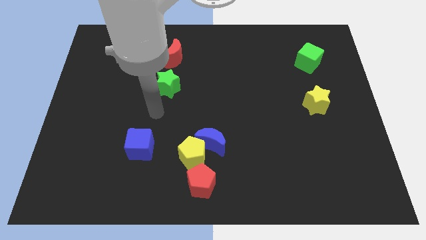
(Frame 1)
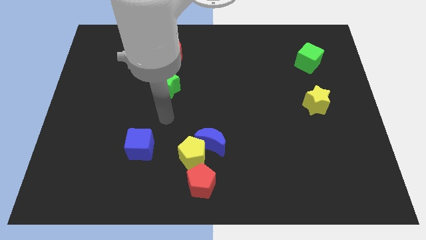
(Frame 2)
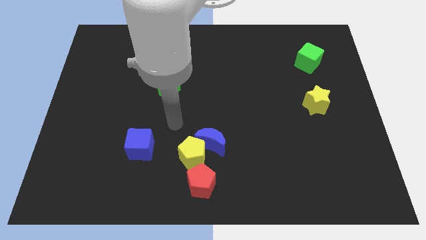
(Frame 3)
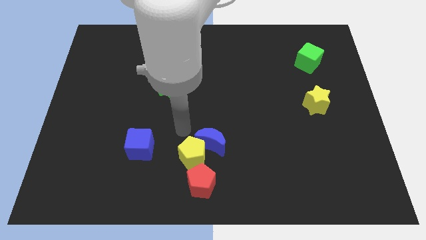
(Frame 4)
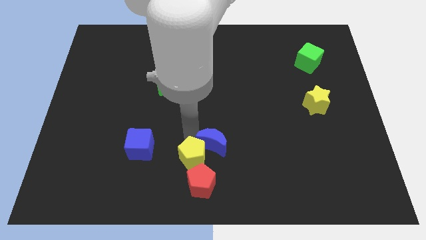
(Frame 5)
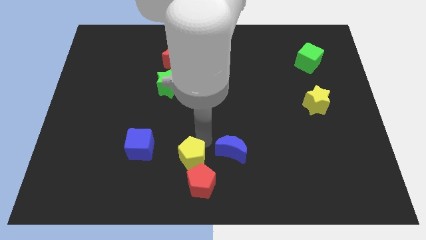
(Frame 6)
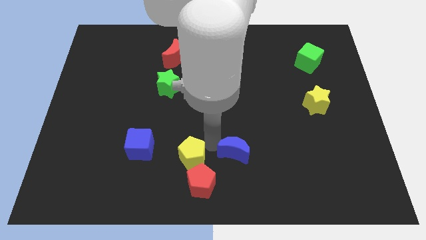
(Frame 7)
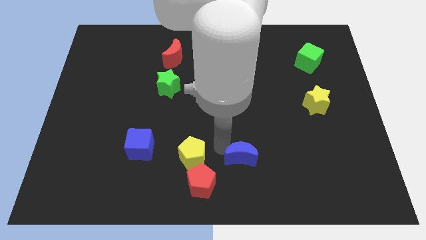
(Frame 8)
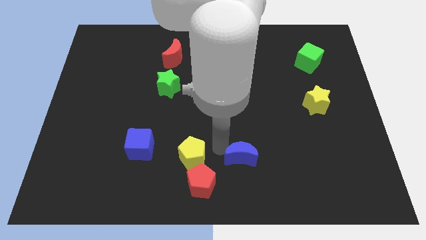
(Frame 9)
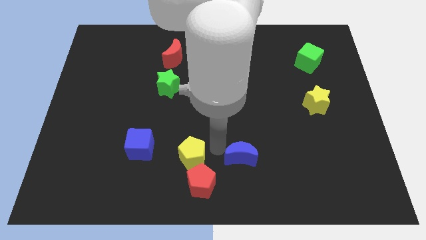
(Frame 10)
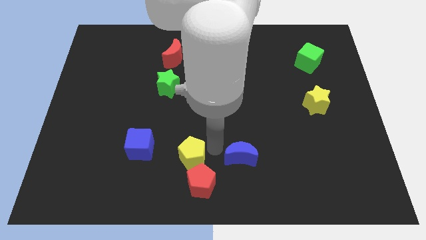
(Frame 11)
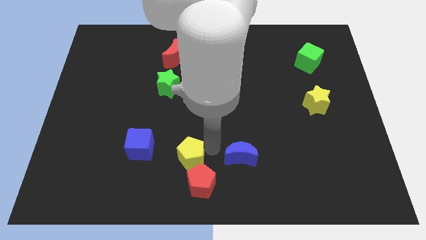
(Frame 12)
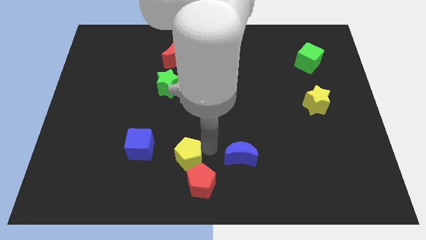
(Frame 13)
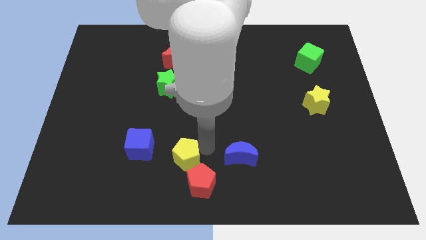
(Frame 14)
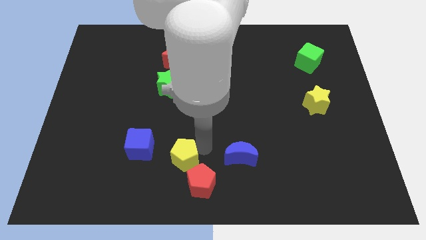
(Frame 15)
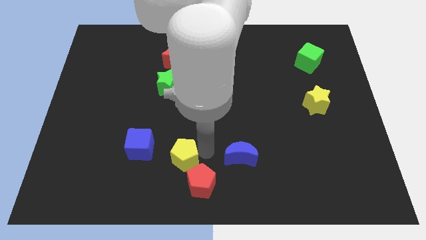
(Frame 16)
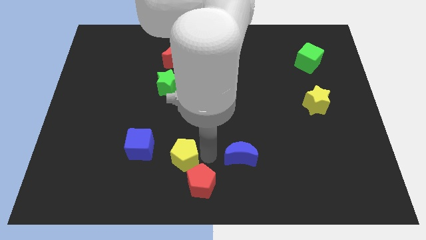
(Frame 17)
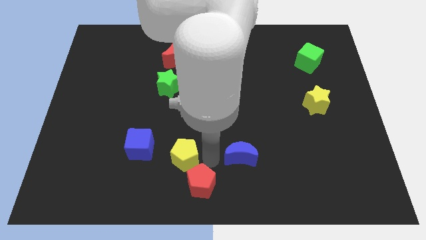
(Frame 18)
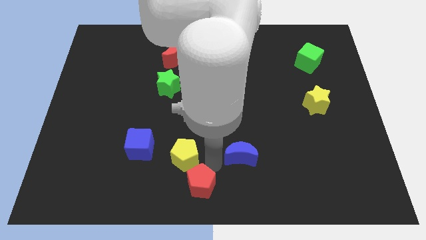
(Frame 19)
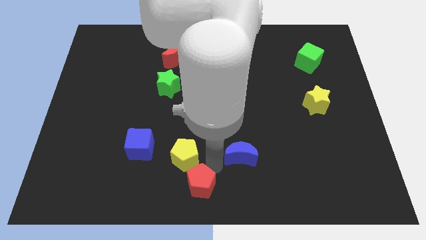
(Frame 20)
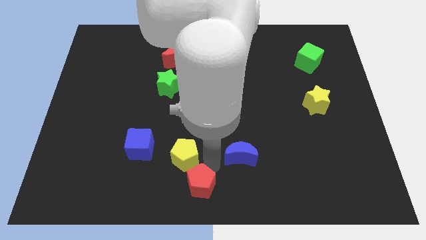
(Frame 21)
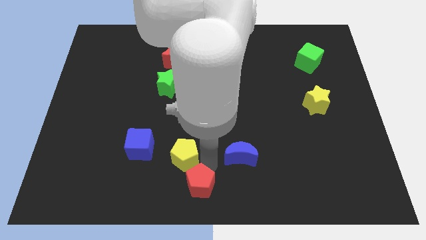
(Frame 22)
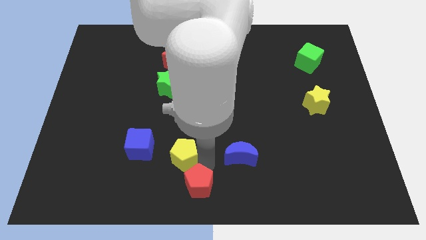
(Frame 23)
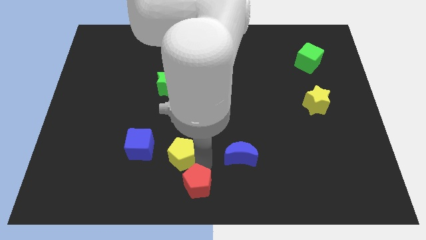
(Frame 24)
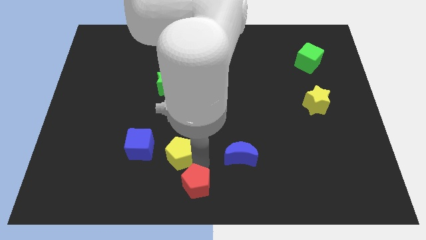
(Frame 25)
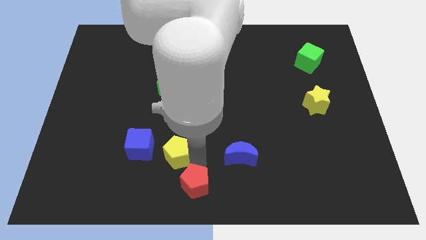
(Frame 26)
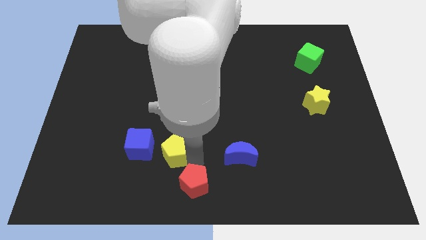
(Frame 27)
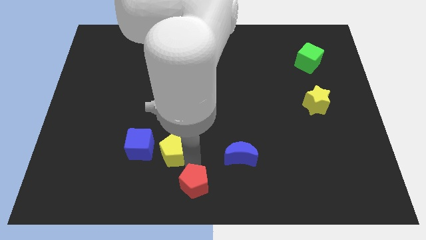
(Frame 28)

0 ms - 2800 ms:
move the yellow pentagon away from the blue moon and red pentagon

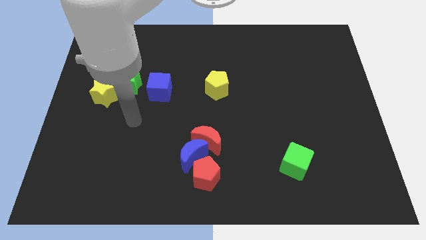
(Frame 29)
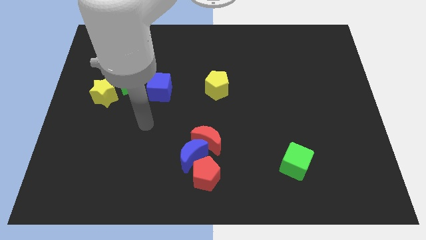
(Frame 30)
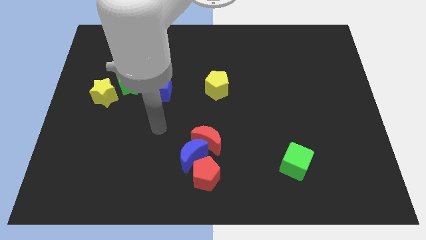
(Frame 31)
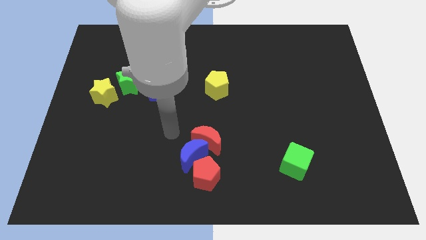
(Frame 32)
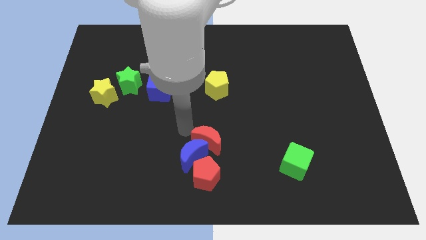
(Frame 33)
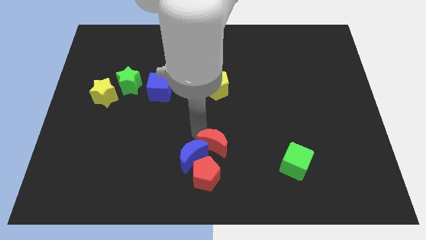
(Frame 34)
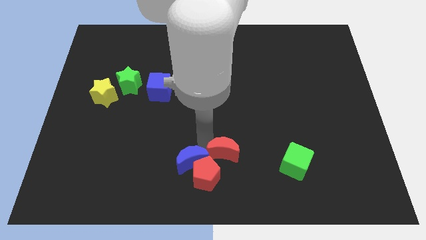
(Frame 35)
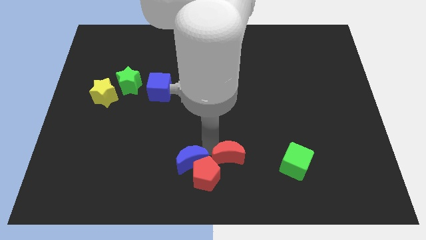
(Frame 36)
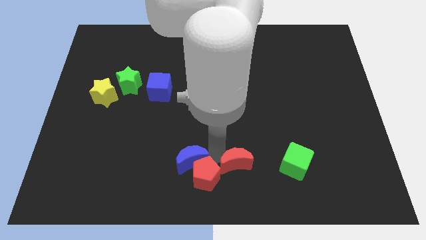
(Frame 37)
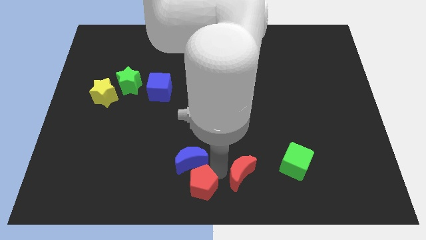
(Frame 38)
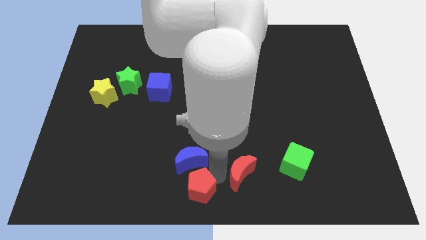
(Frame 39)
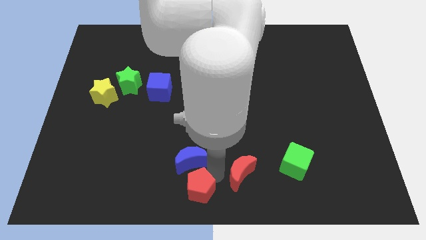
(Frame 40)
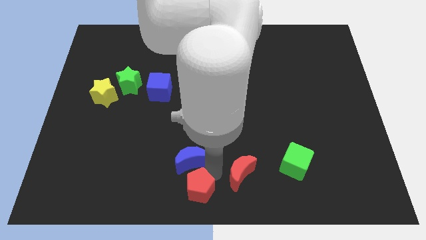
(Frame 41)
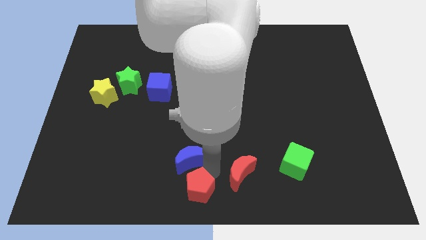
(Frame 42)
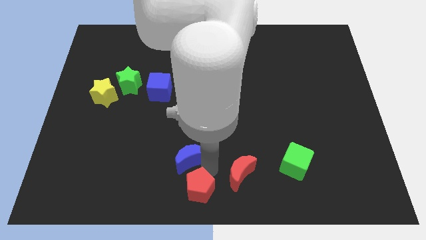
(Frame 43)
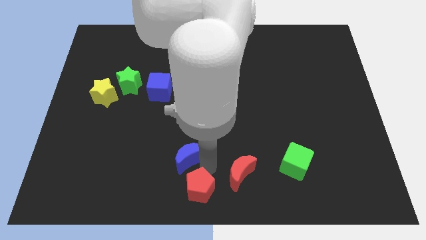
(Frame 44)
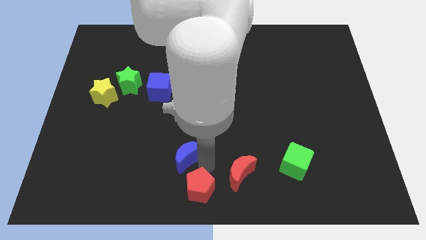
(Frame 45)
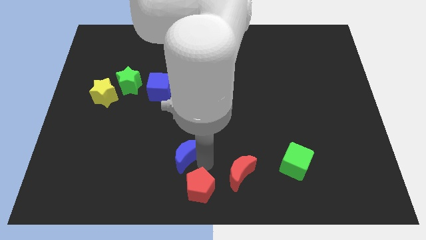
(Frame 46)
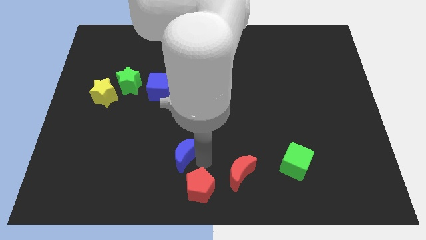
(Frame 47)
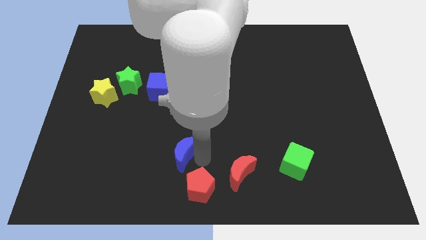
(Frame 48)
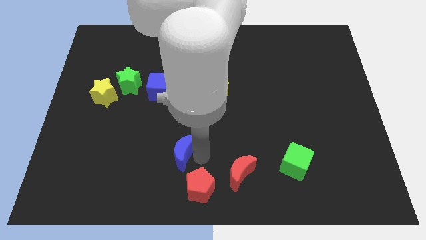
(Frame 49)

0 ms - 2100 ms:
separate the blue moon from the red moon and red pentagon

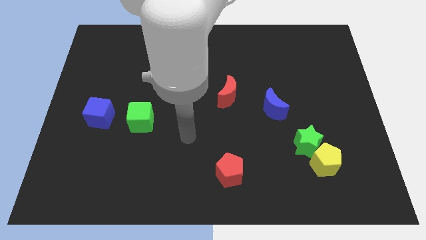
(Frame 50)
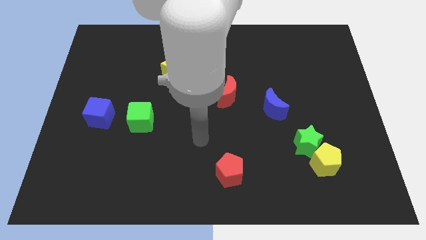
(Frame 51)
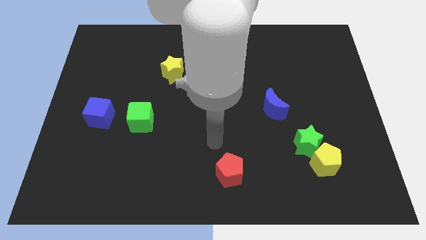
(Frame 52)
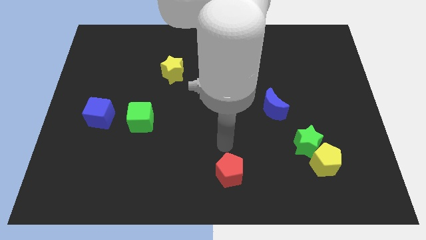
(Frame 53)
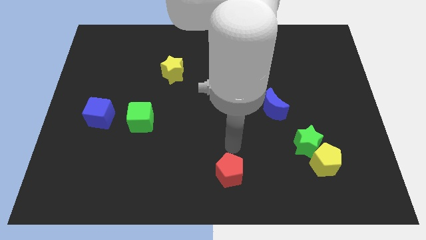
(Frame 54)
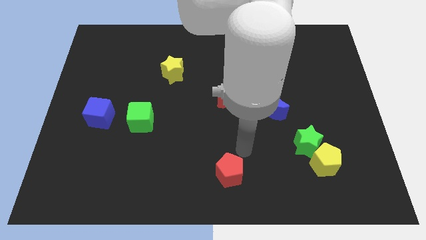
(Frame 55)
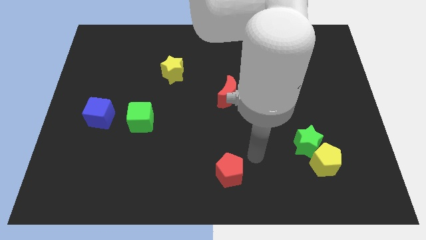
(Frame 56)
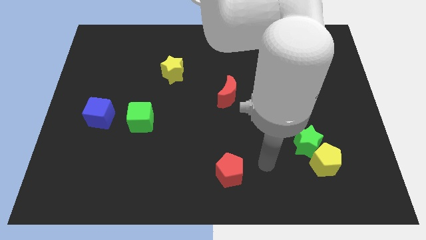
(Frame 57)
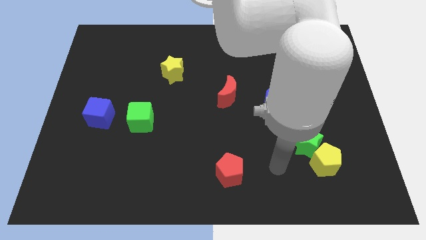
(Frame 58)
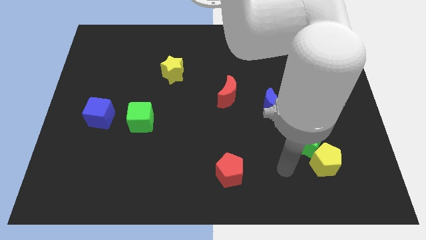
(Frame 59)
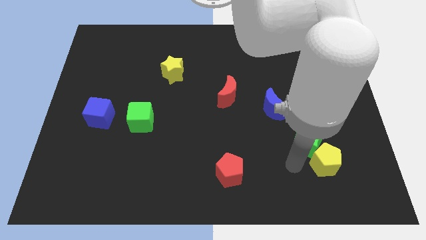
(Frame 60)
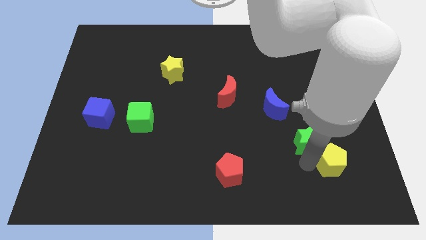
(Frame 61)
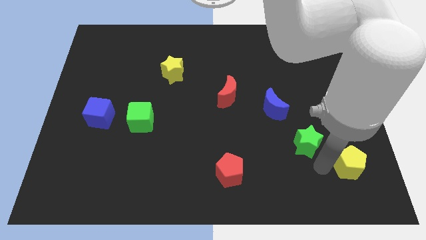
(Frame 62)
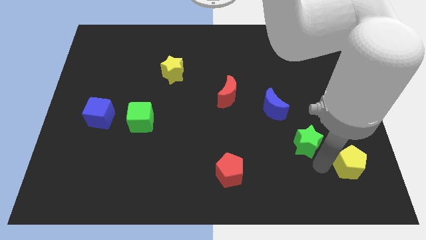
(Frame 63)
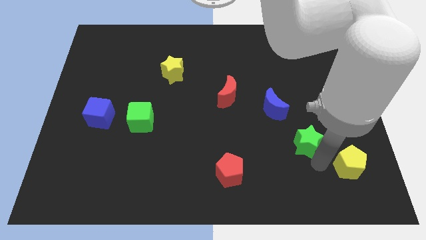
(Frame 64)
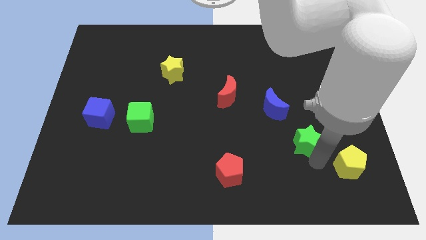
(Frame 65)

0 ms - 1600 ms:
move the green star away from the yellow pentagon

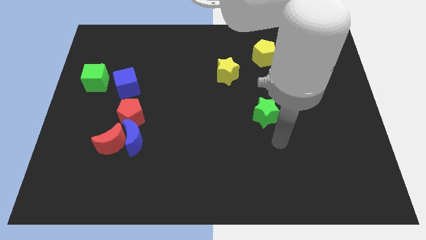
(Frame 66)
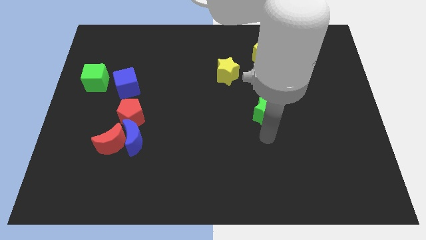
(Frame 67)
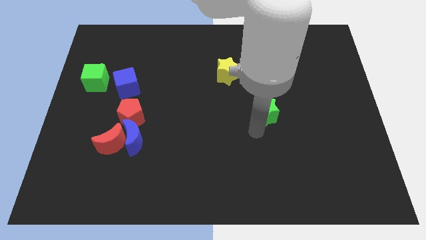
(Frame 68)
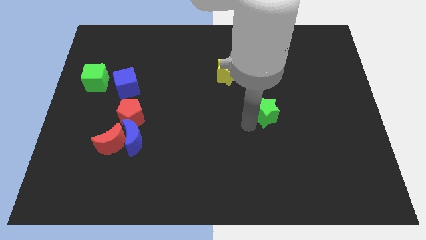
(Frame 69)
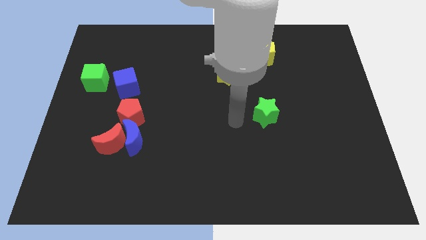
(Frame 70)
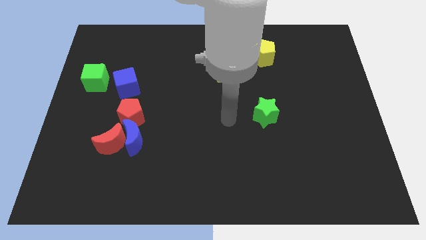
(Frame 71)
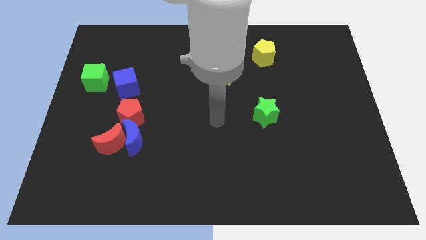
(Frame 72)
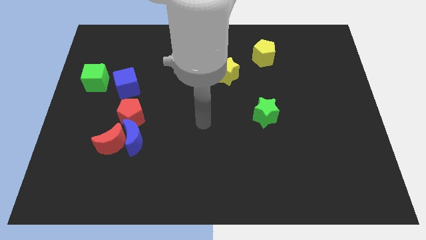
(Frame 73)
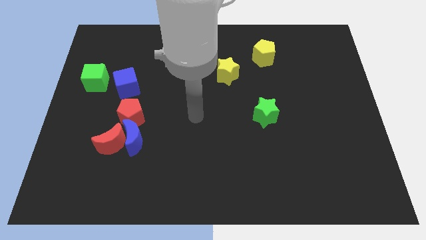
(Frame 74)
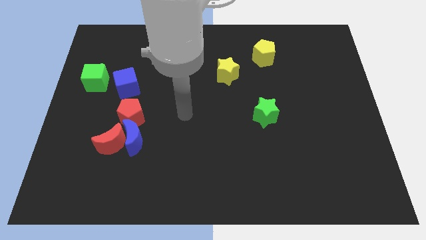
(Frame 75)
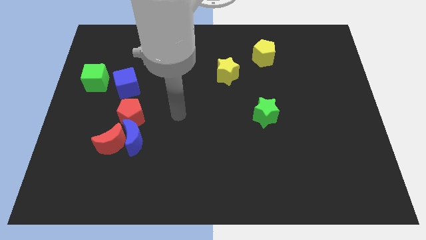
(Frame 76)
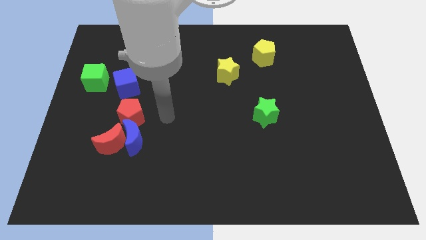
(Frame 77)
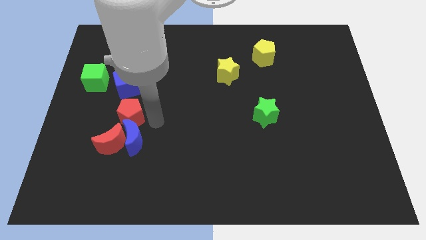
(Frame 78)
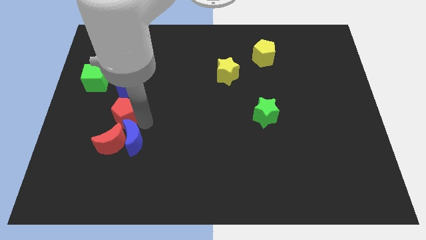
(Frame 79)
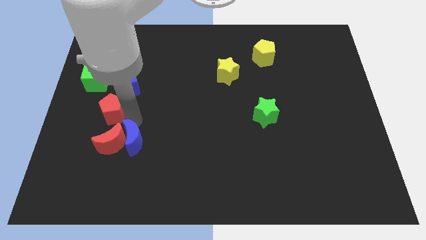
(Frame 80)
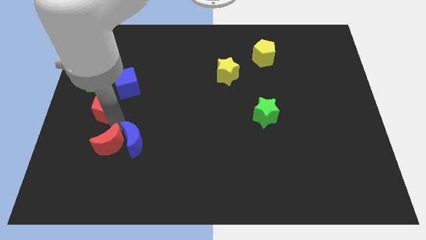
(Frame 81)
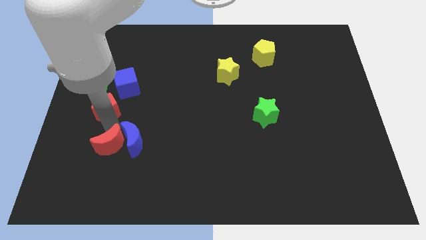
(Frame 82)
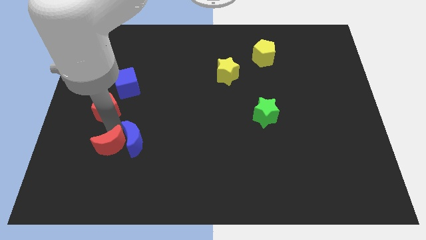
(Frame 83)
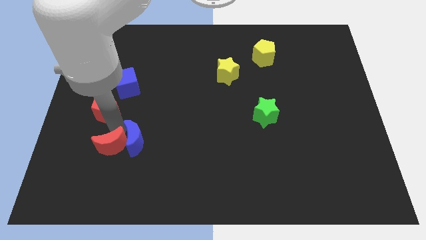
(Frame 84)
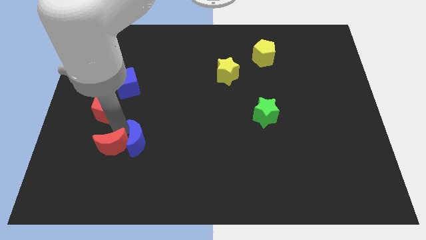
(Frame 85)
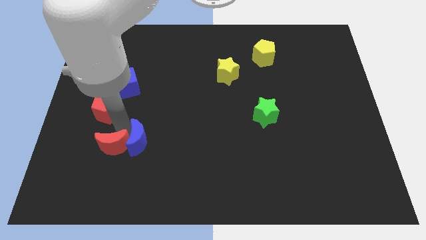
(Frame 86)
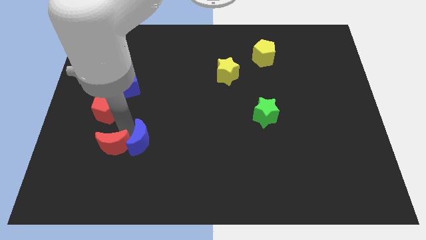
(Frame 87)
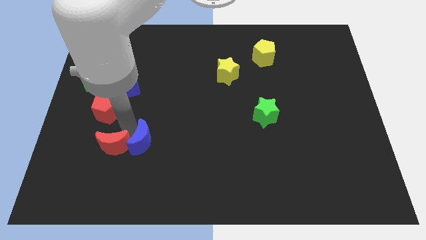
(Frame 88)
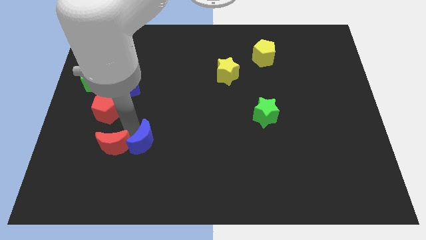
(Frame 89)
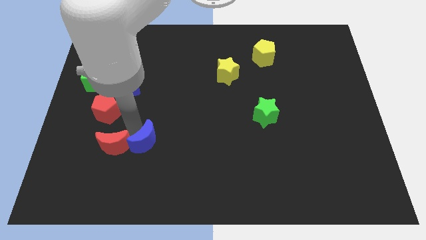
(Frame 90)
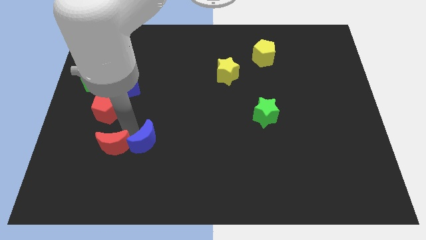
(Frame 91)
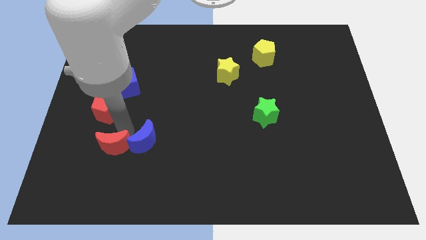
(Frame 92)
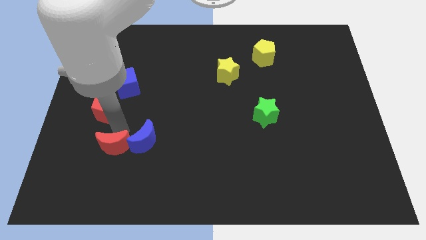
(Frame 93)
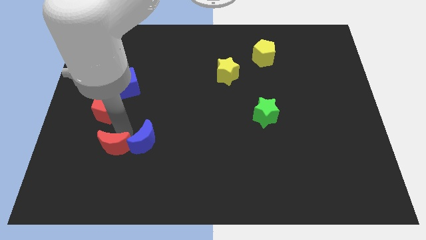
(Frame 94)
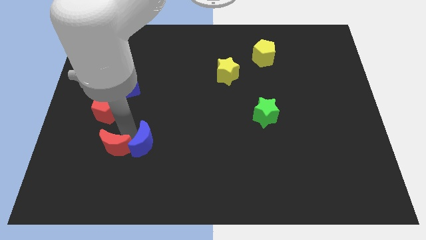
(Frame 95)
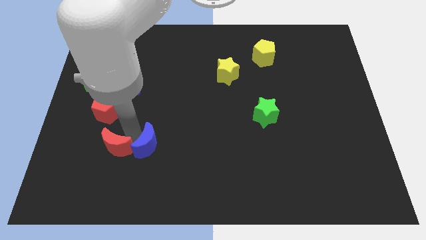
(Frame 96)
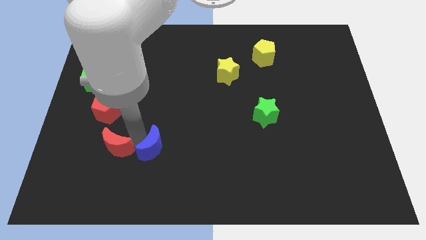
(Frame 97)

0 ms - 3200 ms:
move the blue moon away from the red moon and red pentagon
